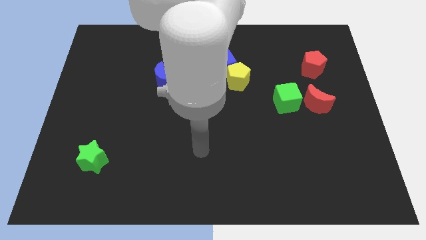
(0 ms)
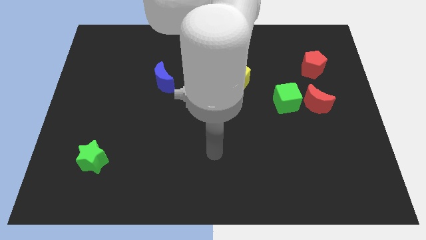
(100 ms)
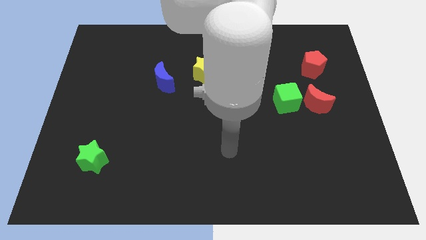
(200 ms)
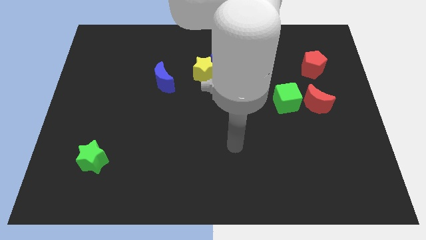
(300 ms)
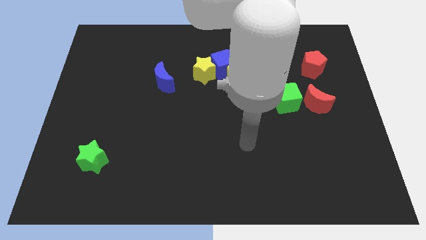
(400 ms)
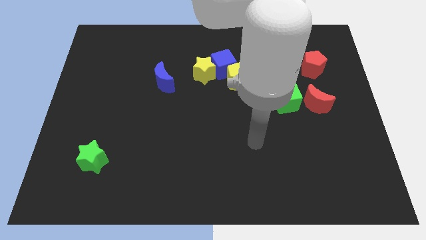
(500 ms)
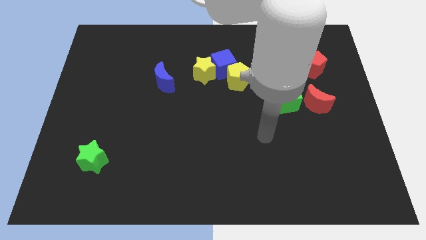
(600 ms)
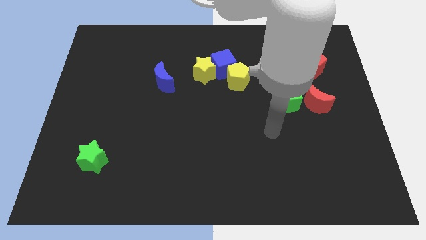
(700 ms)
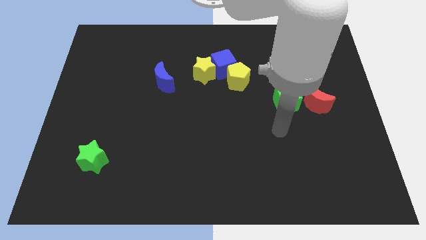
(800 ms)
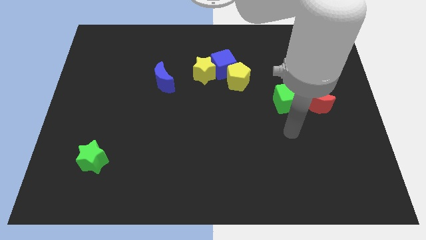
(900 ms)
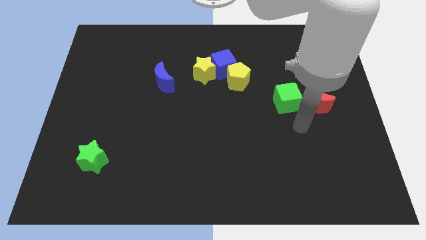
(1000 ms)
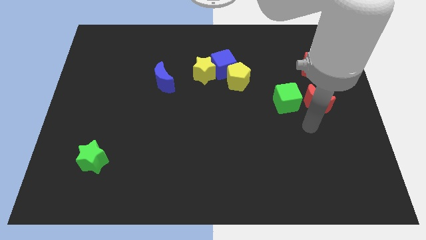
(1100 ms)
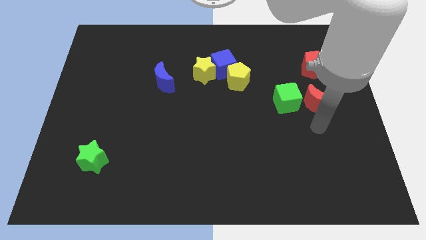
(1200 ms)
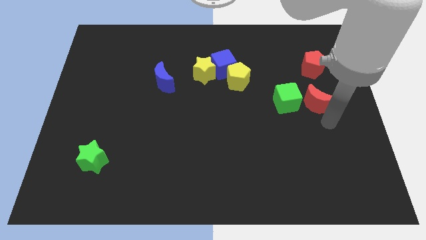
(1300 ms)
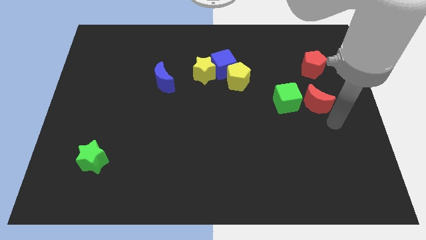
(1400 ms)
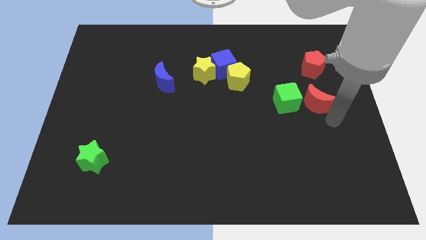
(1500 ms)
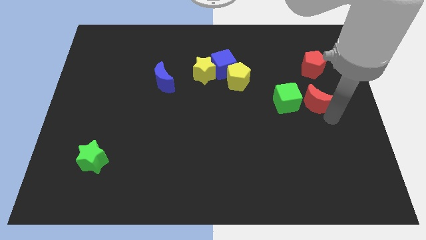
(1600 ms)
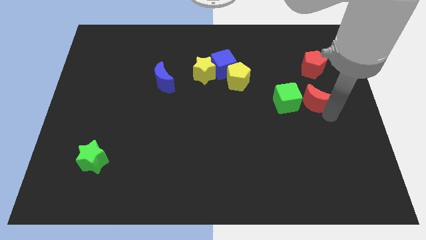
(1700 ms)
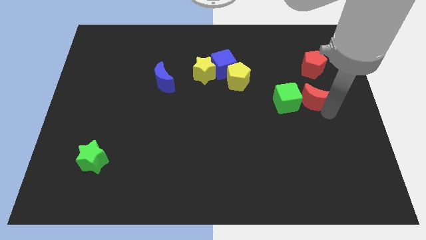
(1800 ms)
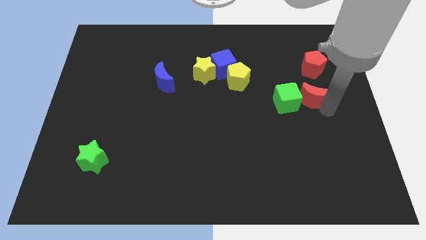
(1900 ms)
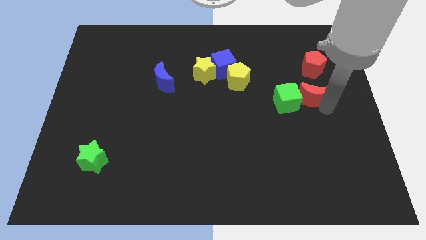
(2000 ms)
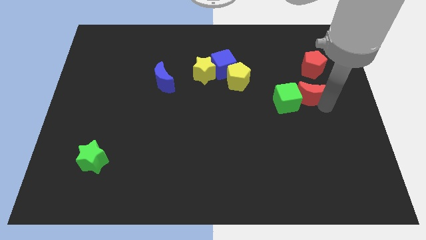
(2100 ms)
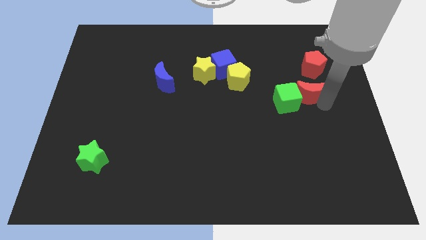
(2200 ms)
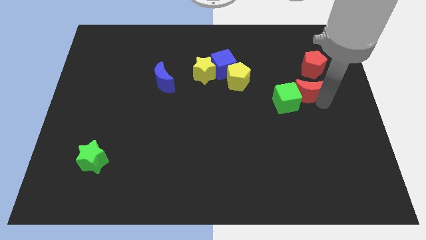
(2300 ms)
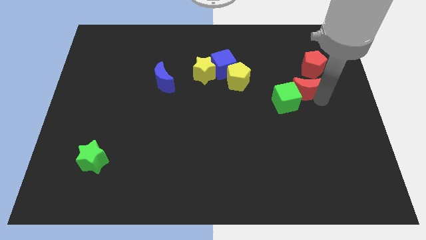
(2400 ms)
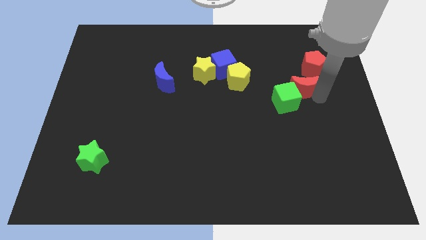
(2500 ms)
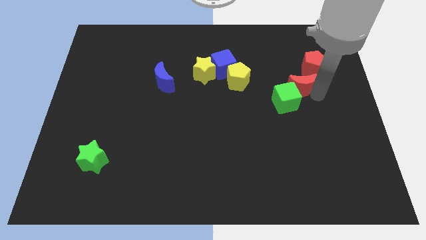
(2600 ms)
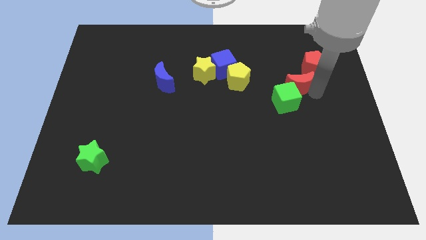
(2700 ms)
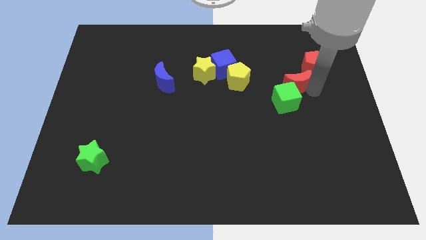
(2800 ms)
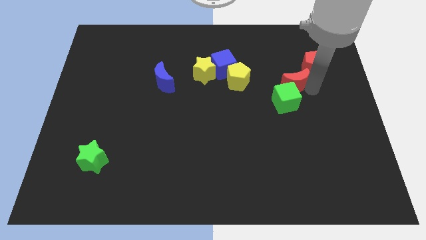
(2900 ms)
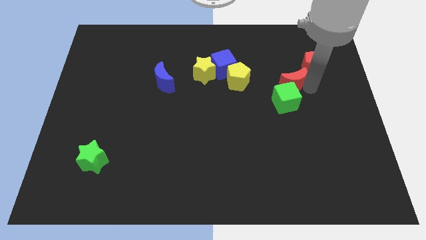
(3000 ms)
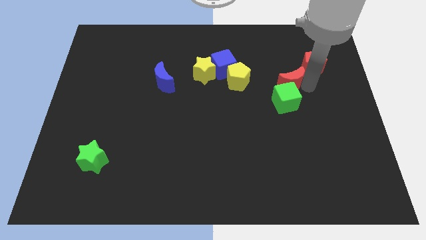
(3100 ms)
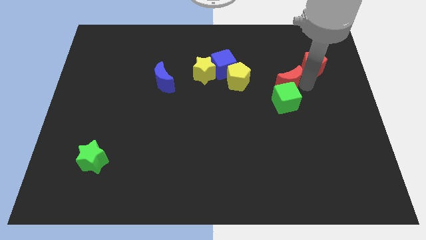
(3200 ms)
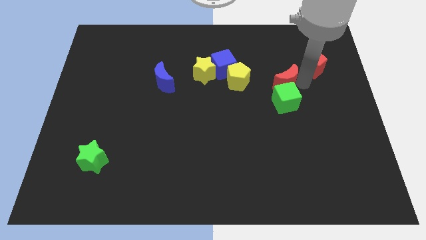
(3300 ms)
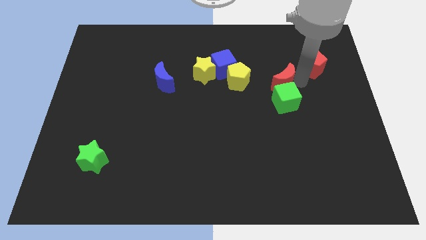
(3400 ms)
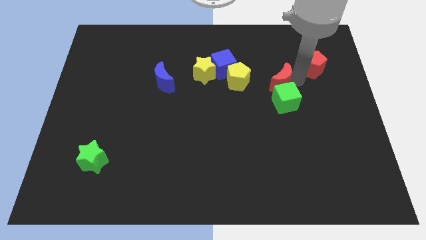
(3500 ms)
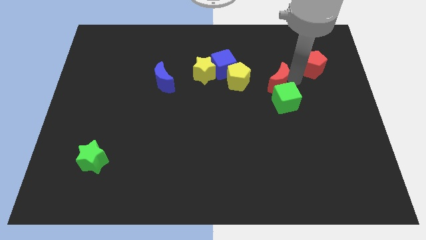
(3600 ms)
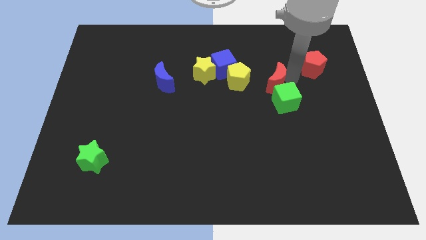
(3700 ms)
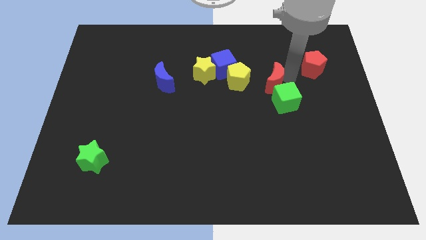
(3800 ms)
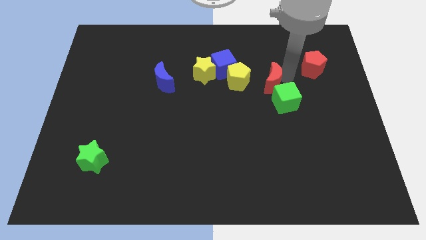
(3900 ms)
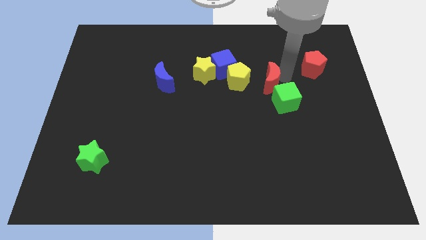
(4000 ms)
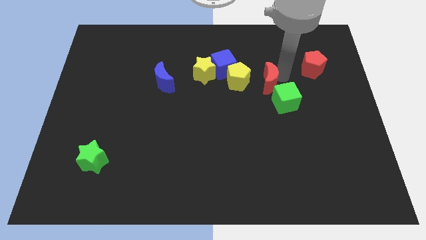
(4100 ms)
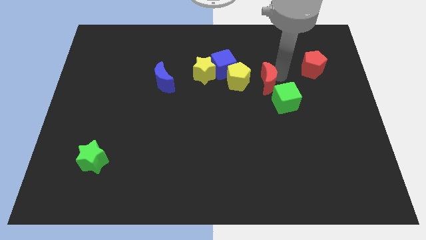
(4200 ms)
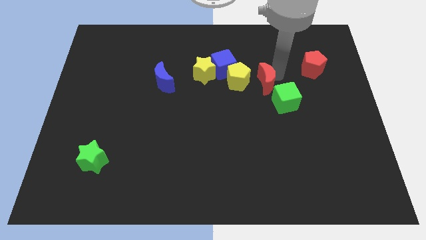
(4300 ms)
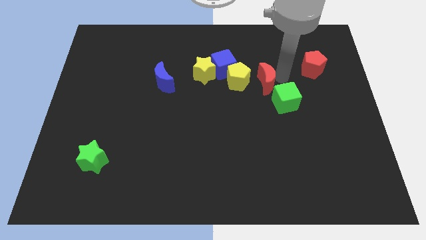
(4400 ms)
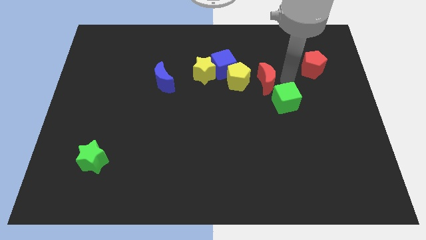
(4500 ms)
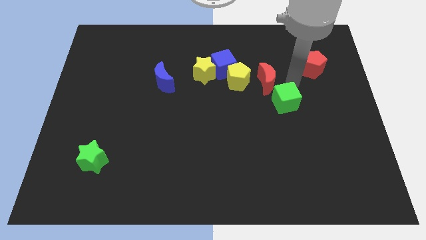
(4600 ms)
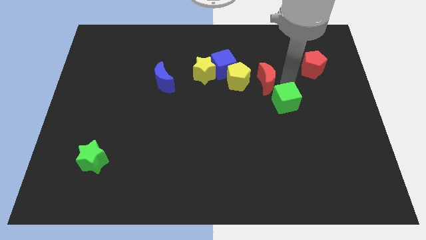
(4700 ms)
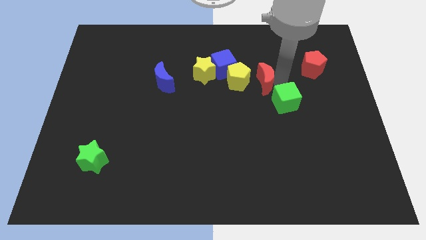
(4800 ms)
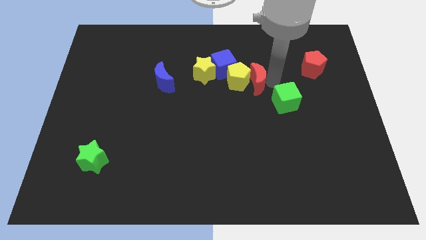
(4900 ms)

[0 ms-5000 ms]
put the red moon close to the yellow pentagon

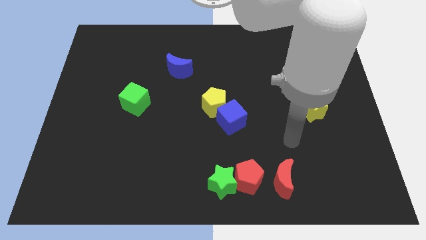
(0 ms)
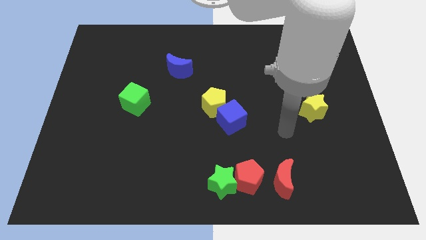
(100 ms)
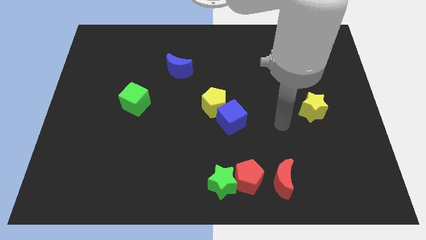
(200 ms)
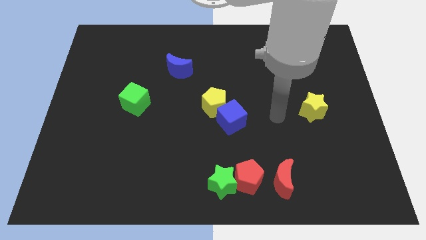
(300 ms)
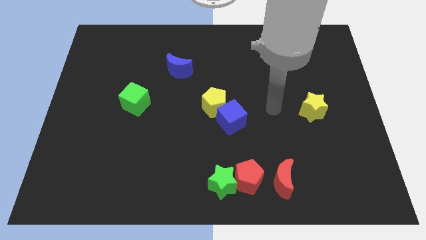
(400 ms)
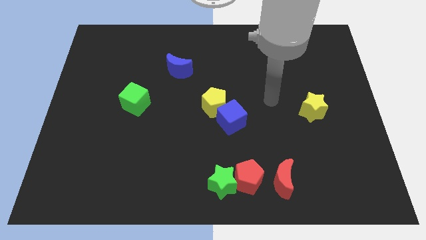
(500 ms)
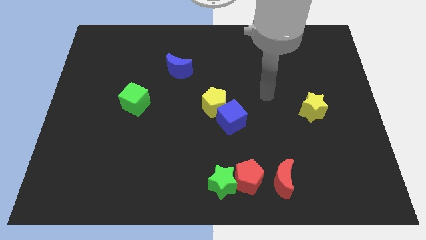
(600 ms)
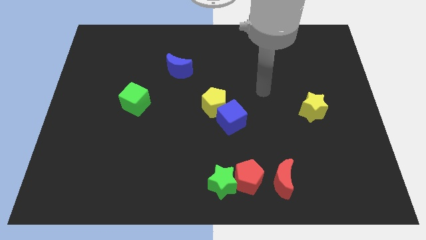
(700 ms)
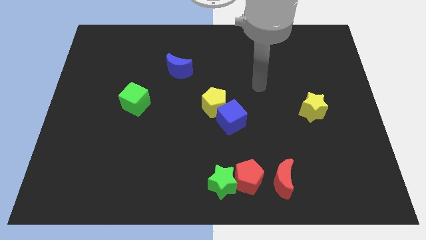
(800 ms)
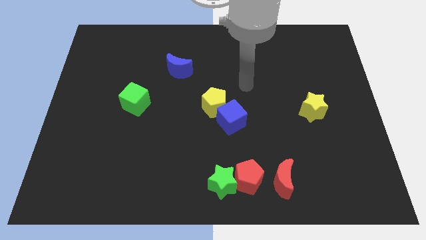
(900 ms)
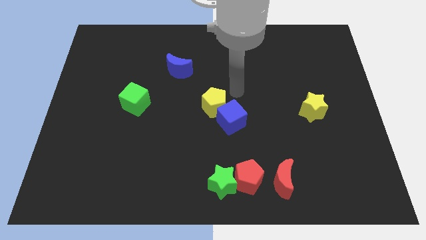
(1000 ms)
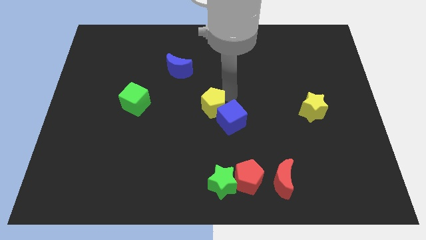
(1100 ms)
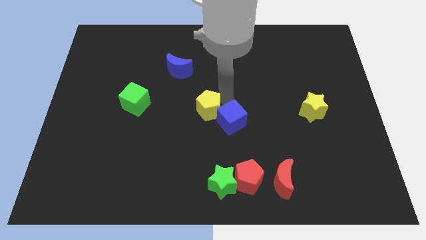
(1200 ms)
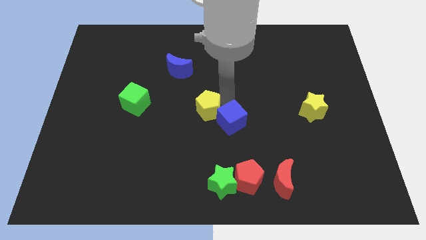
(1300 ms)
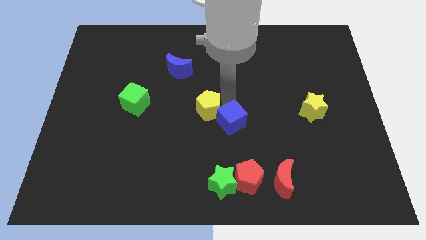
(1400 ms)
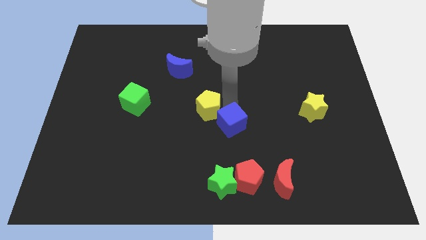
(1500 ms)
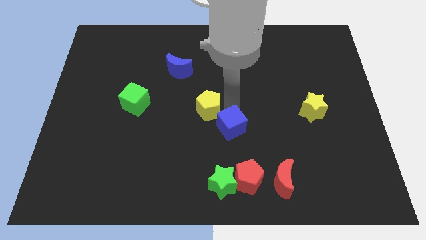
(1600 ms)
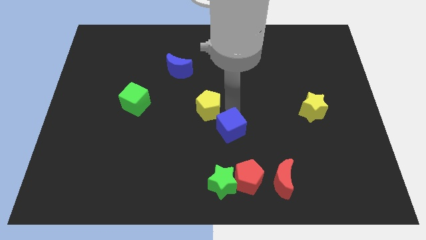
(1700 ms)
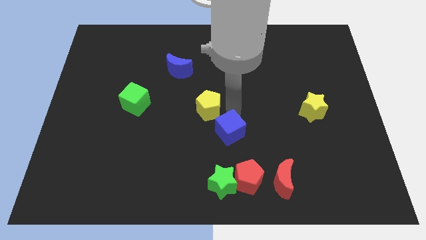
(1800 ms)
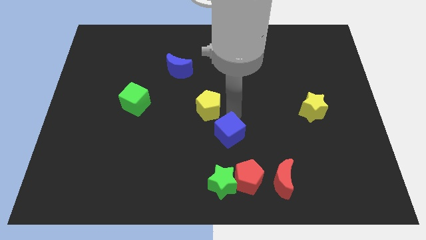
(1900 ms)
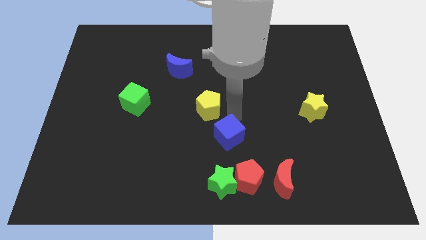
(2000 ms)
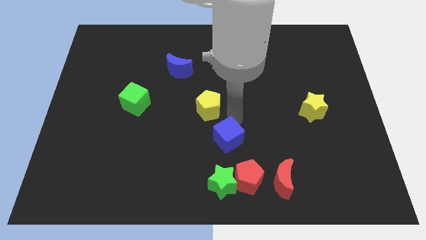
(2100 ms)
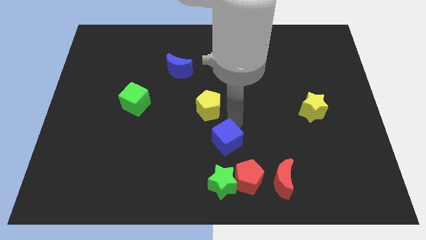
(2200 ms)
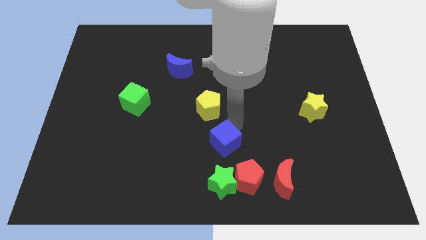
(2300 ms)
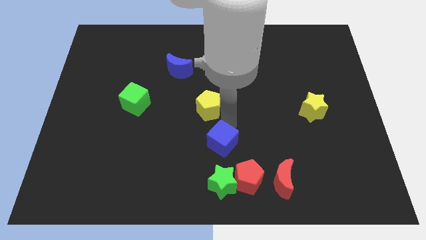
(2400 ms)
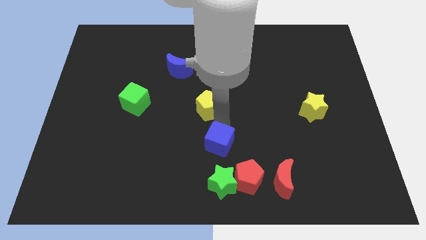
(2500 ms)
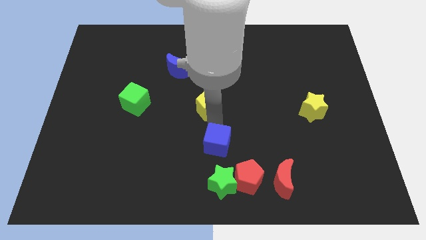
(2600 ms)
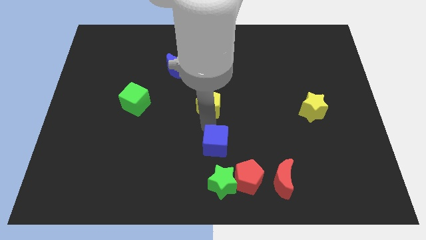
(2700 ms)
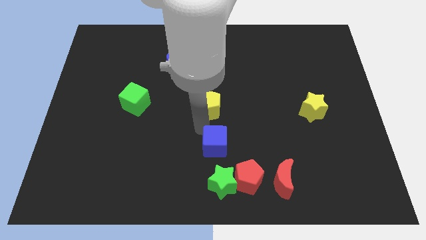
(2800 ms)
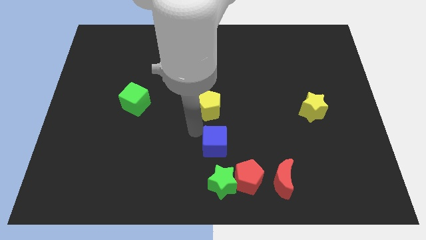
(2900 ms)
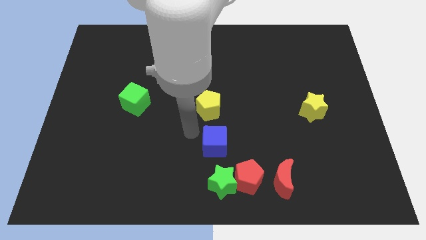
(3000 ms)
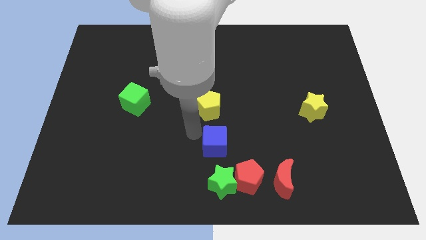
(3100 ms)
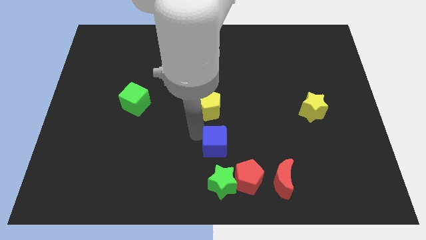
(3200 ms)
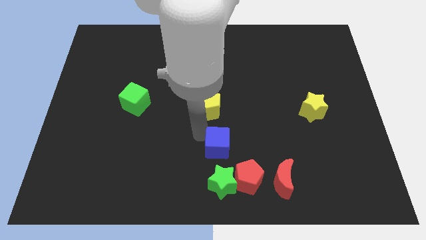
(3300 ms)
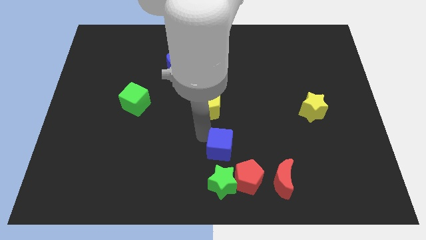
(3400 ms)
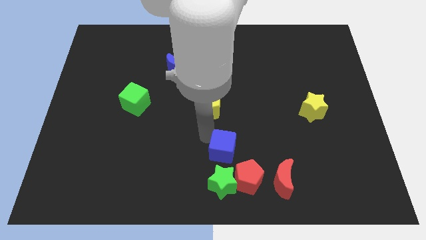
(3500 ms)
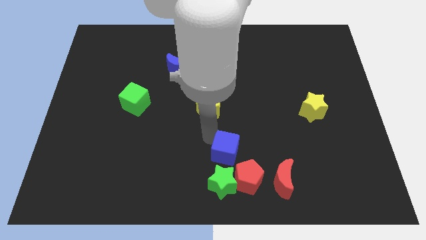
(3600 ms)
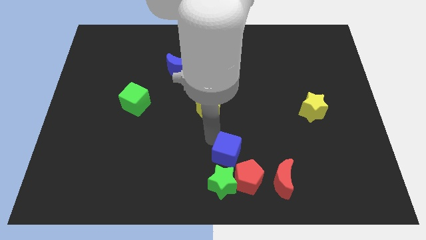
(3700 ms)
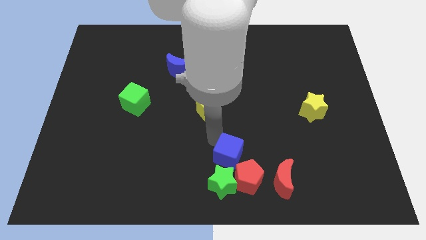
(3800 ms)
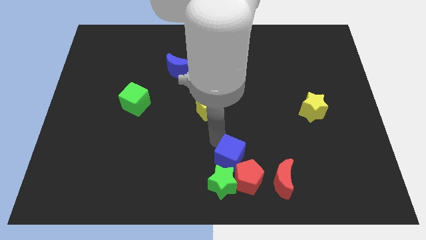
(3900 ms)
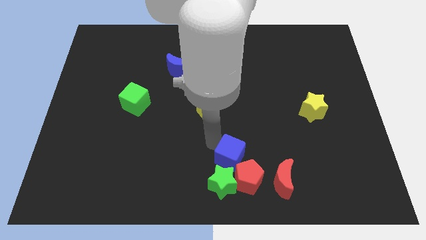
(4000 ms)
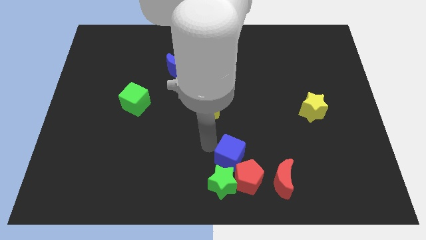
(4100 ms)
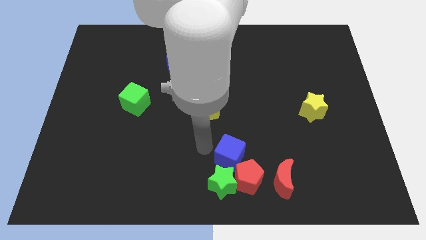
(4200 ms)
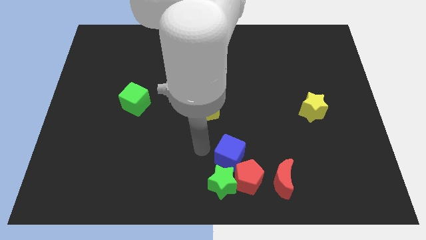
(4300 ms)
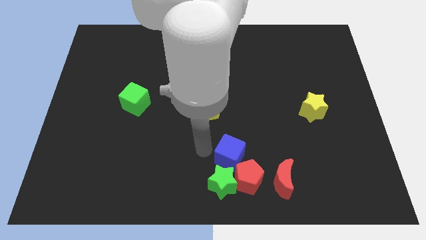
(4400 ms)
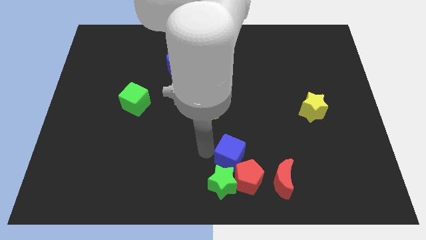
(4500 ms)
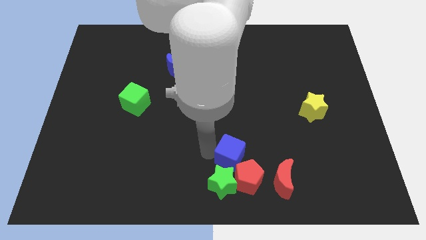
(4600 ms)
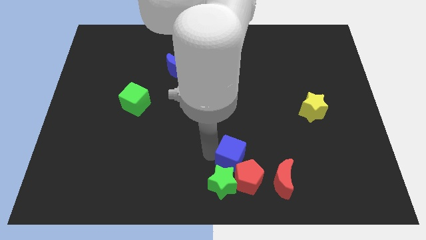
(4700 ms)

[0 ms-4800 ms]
move the blue cube close to the red pentagon
